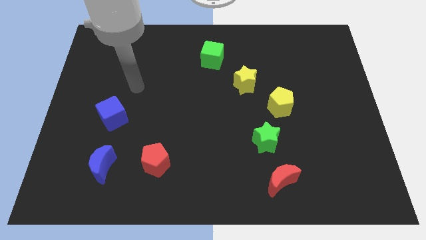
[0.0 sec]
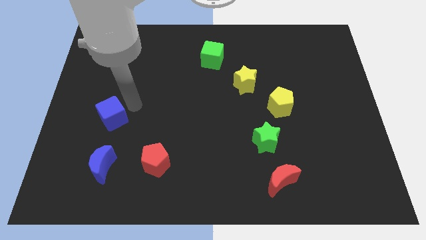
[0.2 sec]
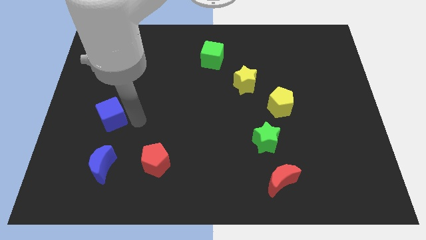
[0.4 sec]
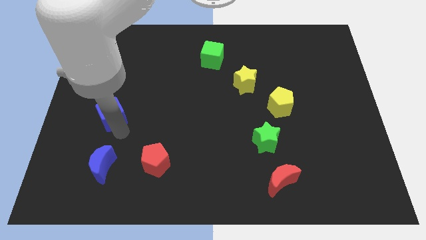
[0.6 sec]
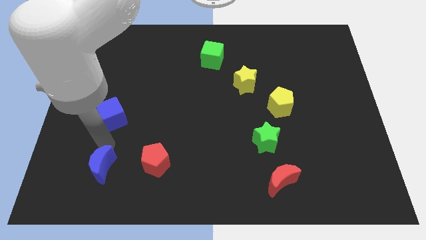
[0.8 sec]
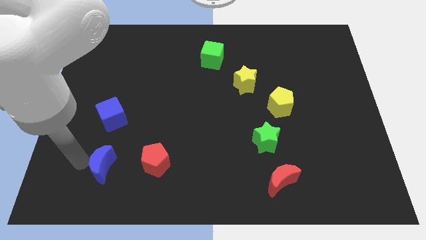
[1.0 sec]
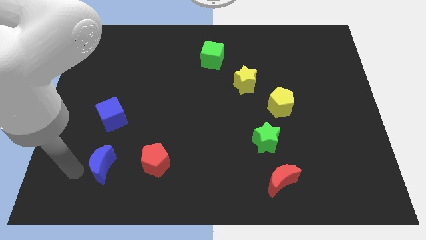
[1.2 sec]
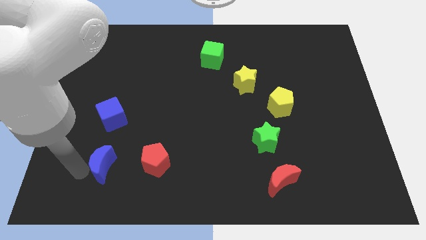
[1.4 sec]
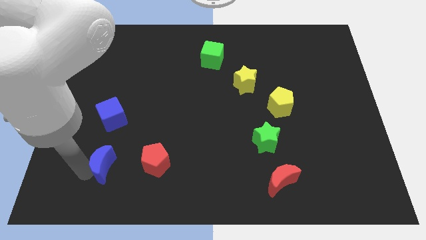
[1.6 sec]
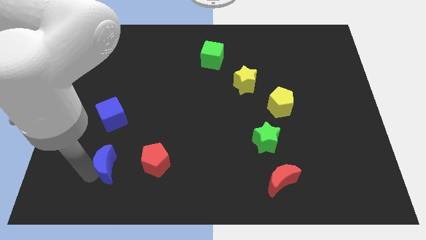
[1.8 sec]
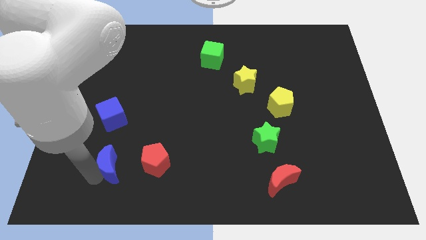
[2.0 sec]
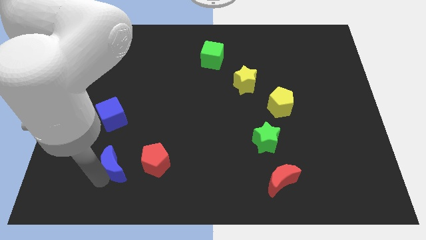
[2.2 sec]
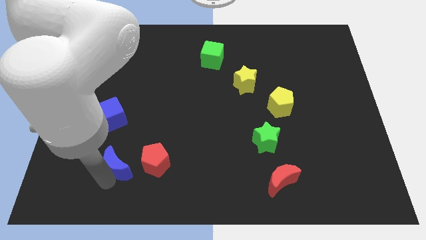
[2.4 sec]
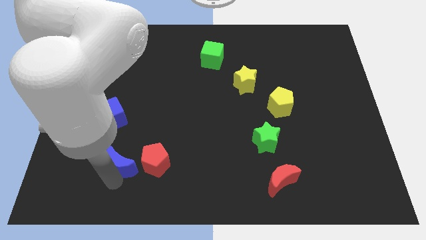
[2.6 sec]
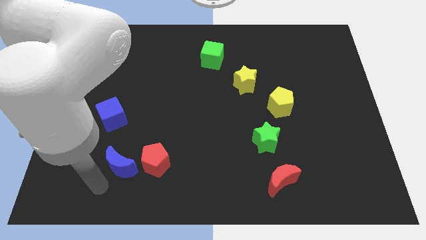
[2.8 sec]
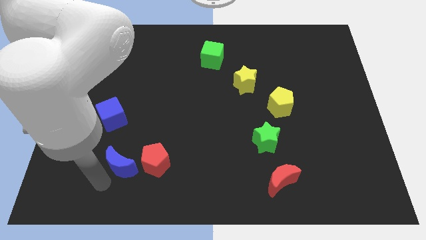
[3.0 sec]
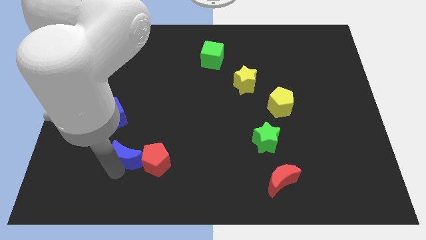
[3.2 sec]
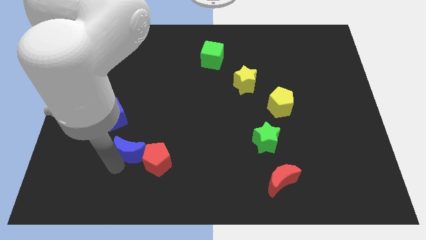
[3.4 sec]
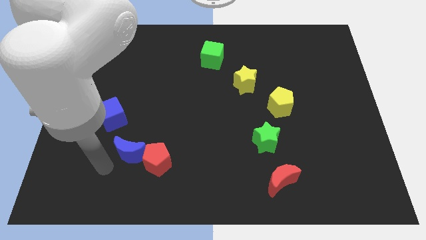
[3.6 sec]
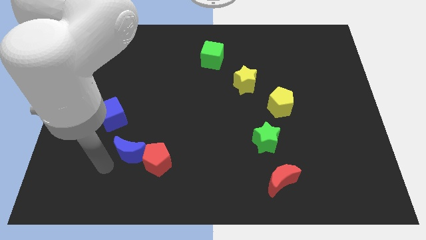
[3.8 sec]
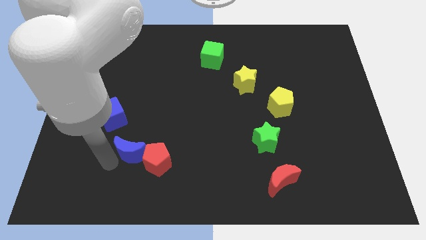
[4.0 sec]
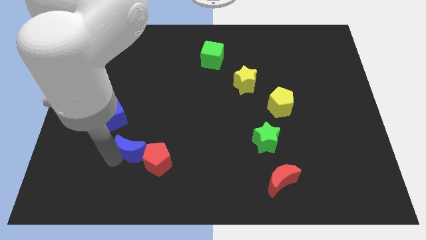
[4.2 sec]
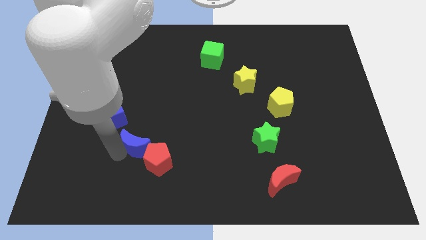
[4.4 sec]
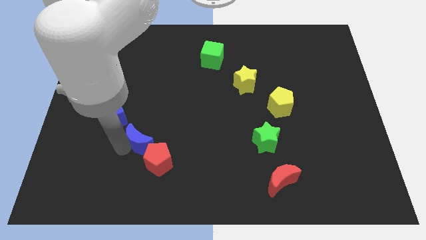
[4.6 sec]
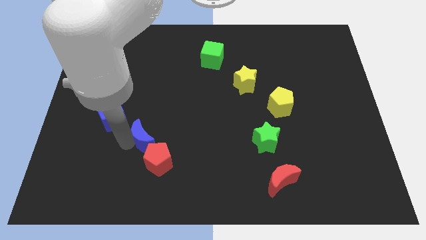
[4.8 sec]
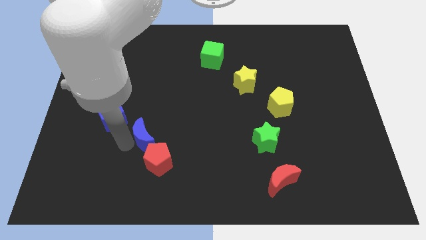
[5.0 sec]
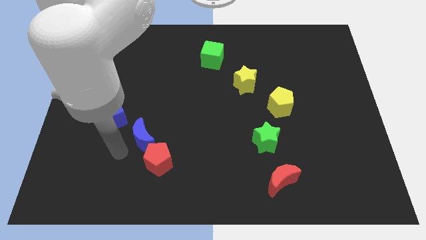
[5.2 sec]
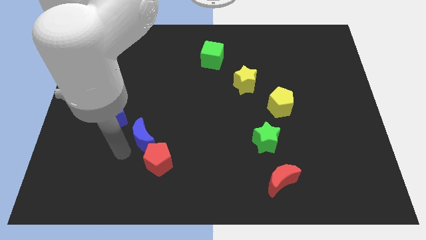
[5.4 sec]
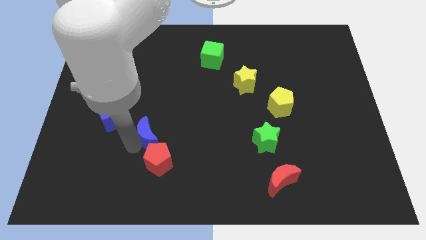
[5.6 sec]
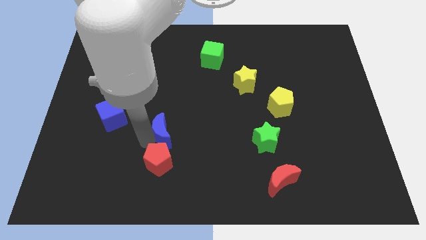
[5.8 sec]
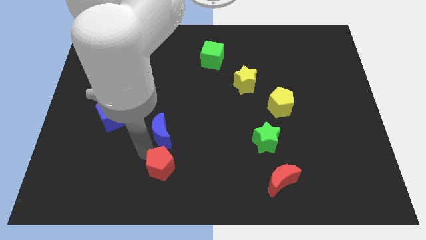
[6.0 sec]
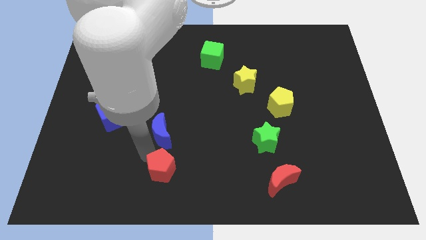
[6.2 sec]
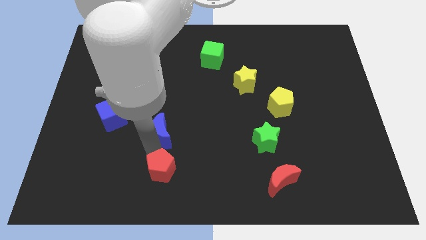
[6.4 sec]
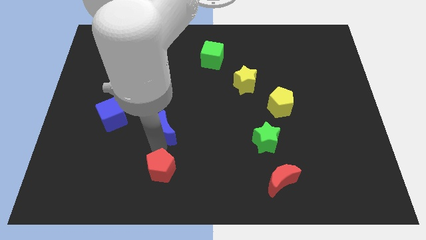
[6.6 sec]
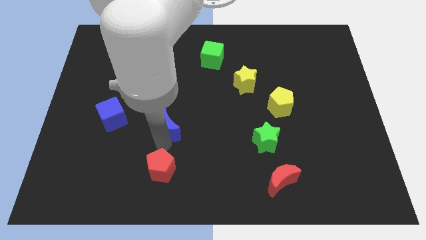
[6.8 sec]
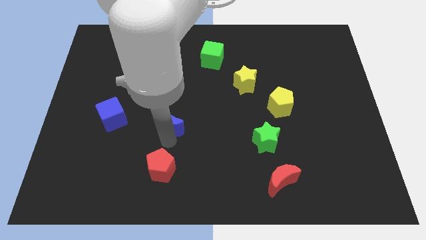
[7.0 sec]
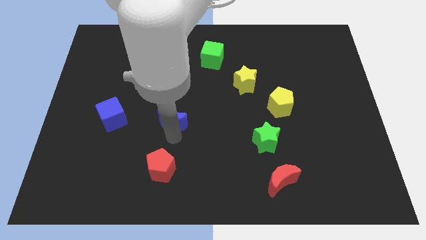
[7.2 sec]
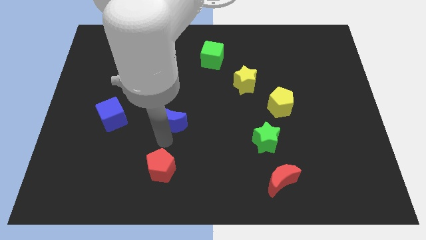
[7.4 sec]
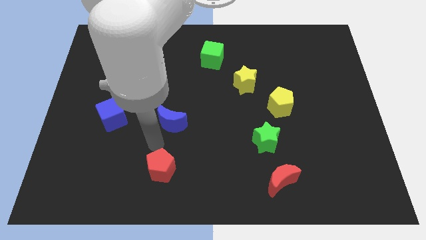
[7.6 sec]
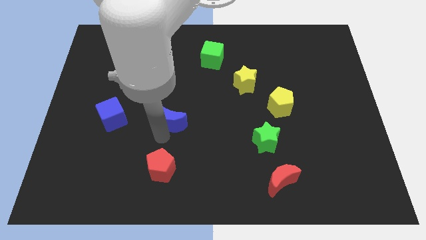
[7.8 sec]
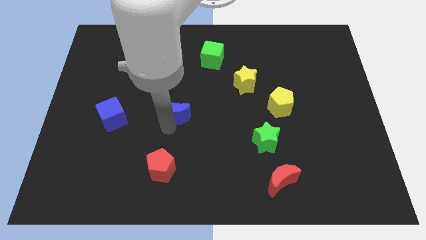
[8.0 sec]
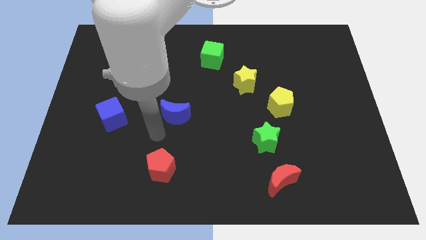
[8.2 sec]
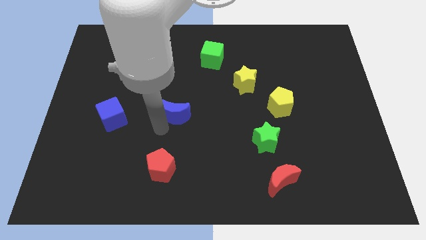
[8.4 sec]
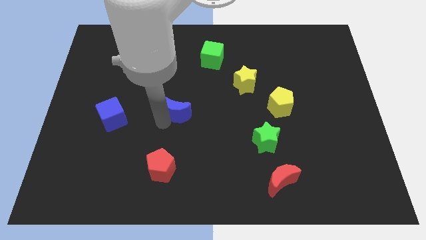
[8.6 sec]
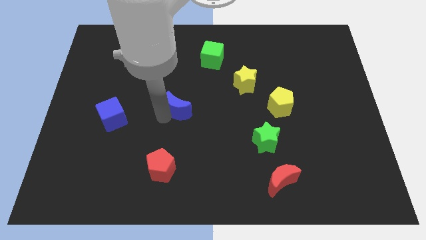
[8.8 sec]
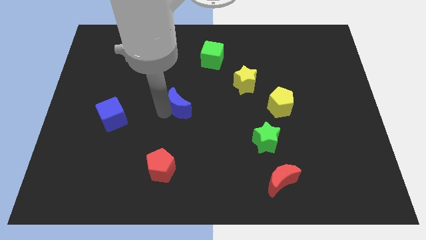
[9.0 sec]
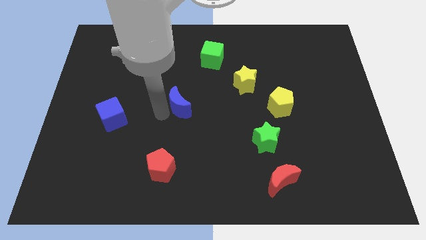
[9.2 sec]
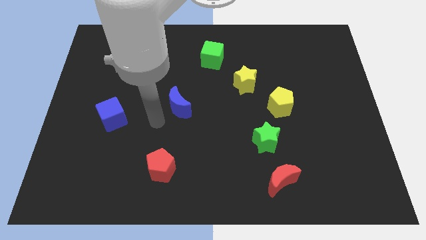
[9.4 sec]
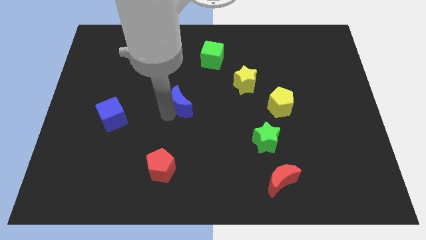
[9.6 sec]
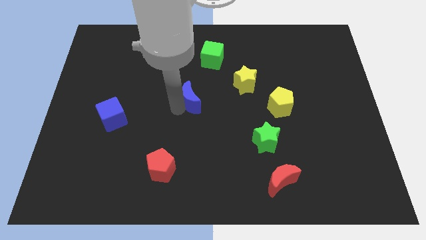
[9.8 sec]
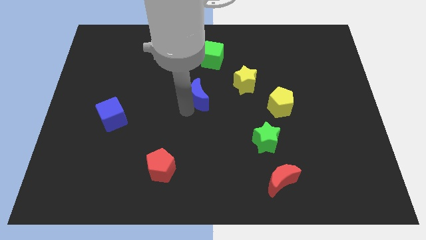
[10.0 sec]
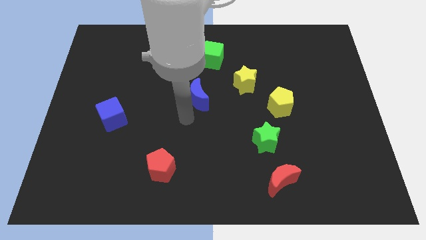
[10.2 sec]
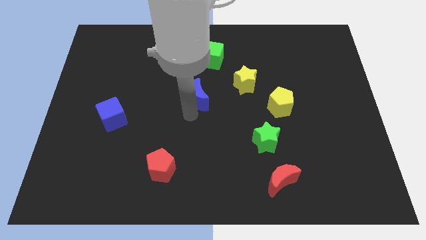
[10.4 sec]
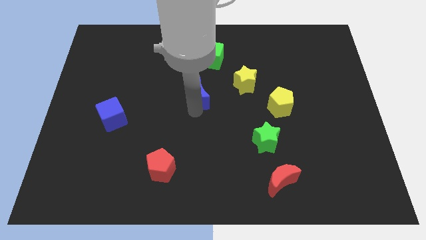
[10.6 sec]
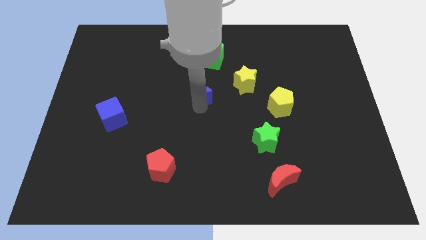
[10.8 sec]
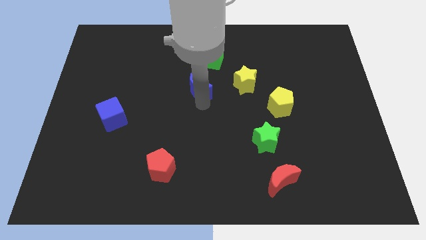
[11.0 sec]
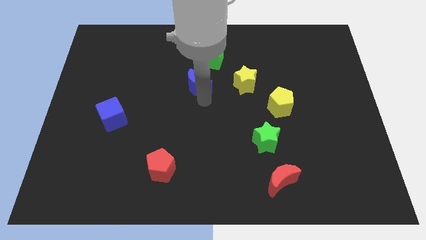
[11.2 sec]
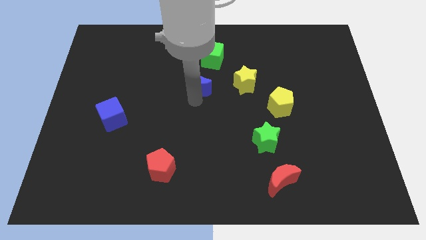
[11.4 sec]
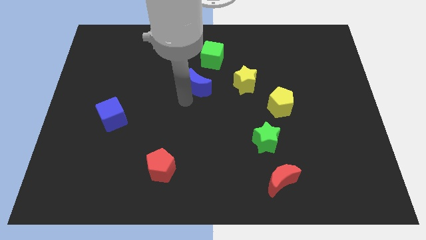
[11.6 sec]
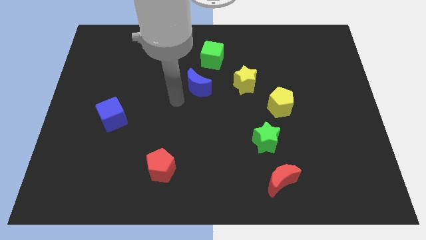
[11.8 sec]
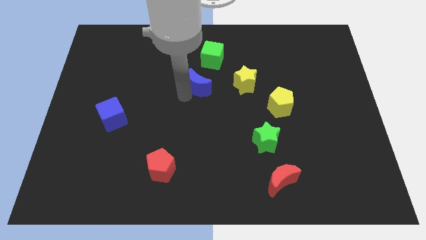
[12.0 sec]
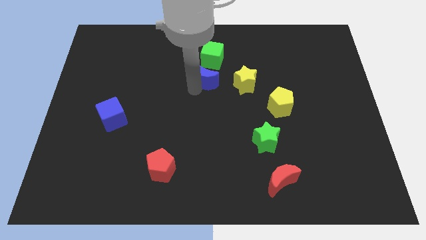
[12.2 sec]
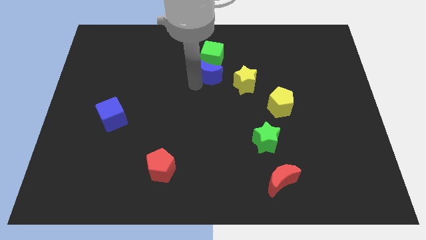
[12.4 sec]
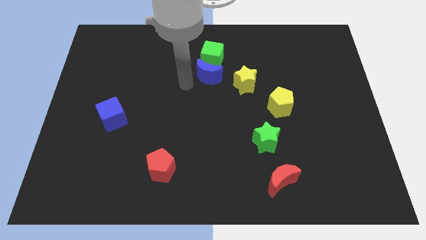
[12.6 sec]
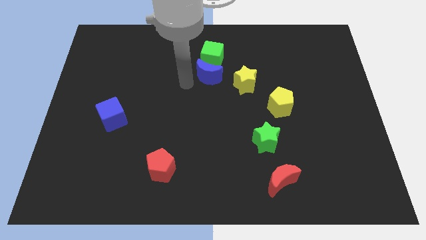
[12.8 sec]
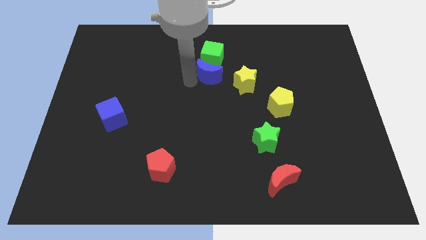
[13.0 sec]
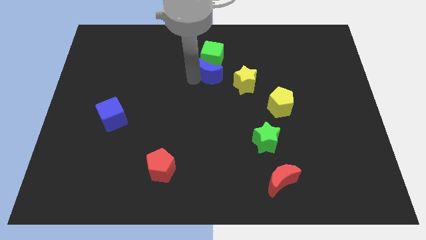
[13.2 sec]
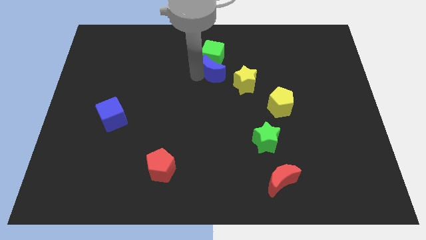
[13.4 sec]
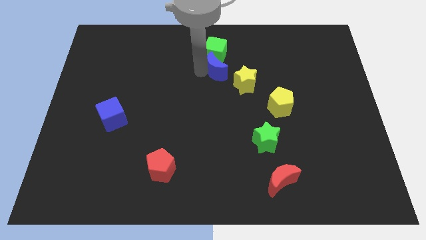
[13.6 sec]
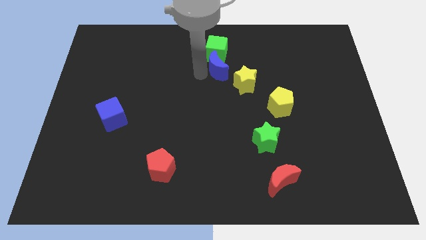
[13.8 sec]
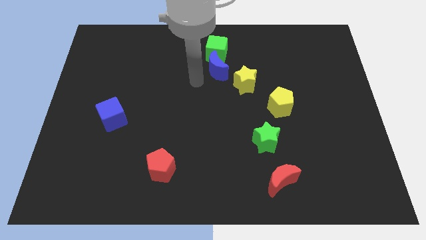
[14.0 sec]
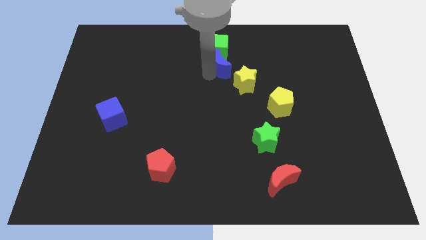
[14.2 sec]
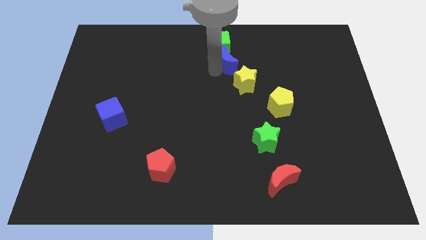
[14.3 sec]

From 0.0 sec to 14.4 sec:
slide the blue moon to the top side of the yellow star
